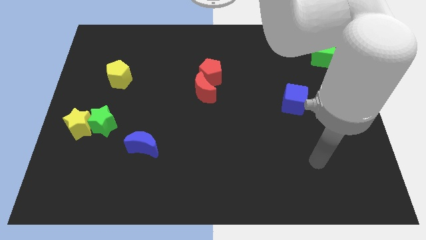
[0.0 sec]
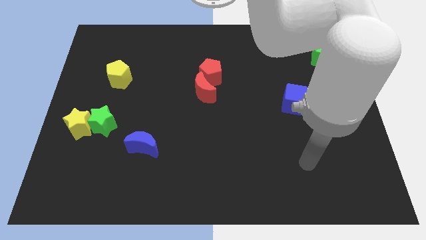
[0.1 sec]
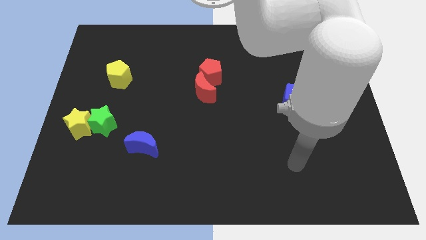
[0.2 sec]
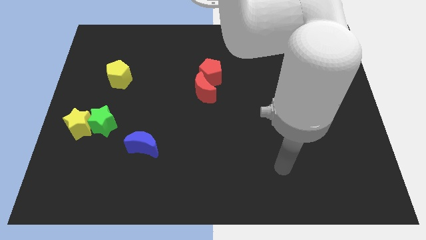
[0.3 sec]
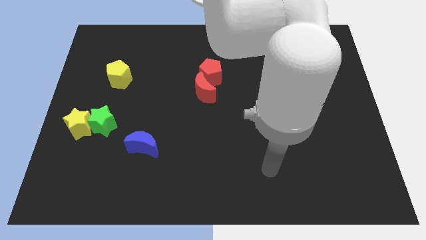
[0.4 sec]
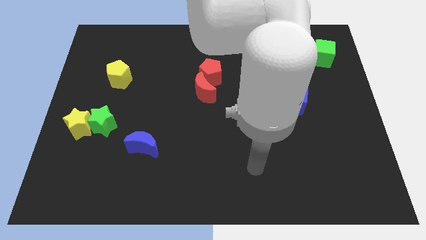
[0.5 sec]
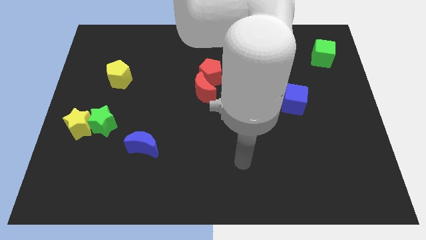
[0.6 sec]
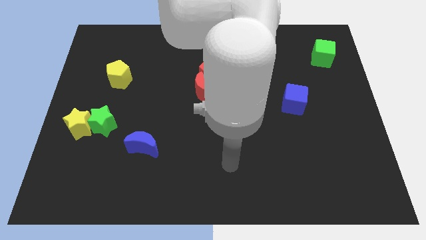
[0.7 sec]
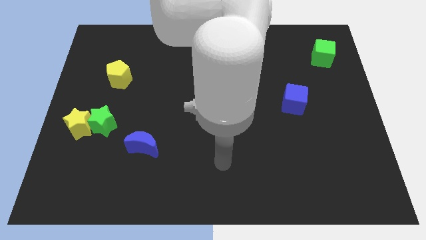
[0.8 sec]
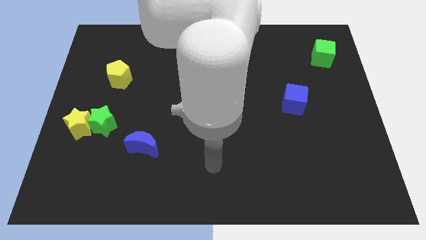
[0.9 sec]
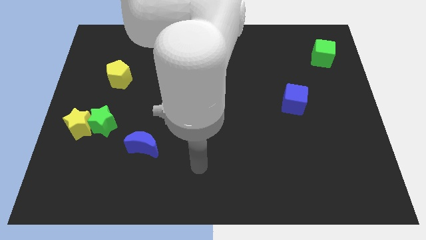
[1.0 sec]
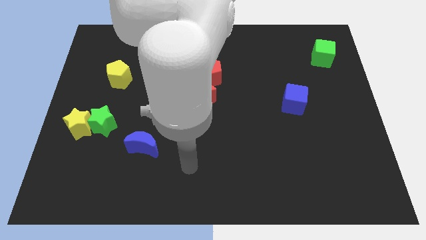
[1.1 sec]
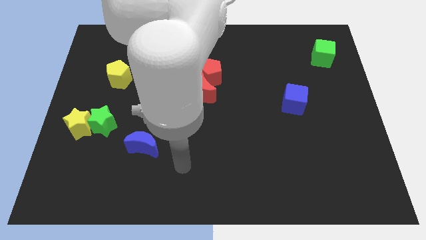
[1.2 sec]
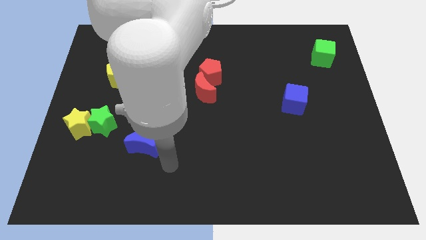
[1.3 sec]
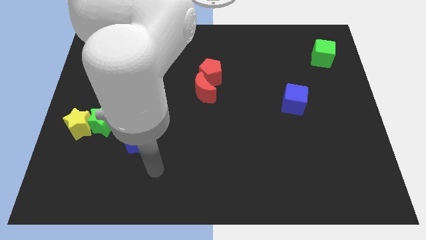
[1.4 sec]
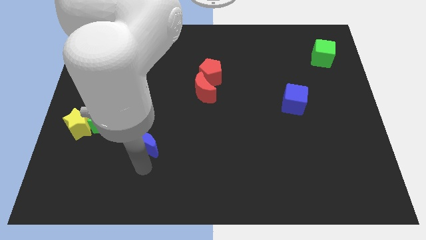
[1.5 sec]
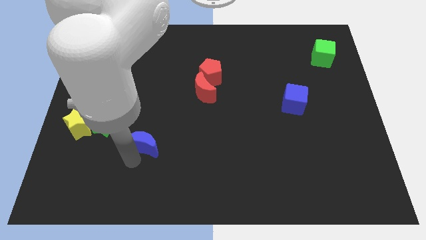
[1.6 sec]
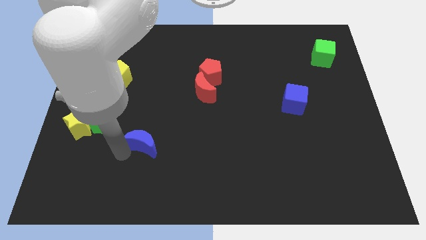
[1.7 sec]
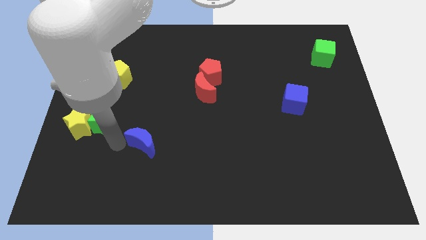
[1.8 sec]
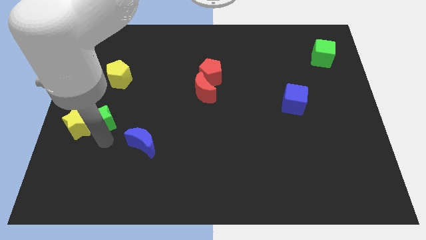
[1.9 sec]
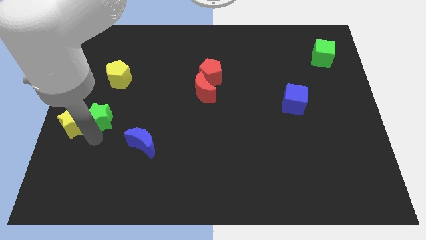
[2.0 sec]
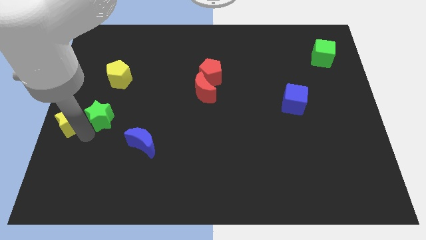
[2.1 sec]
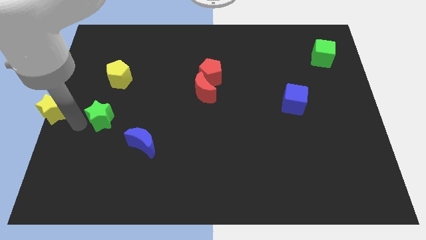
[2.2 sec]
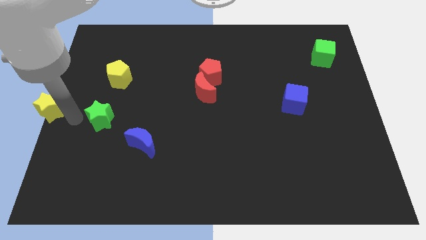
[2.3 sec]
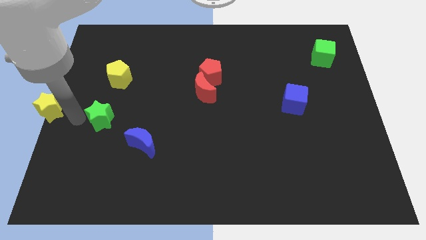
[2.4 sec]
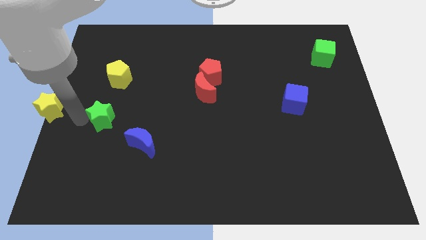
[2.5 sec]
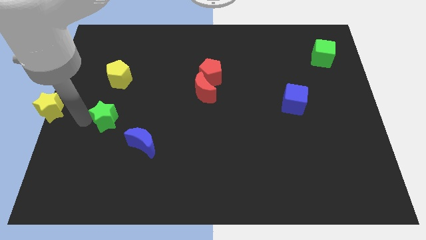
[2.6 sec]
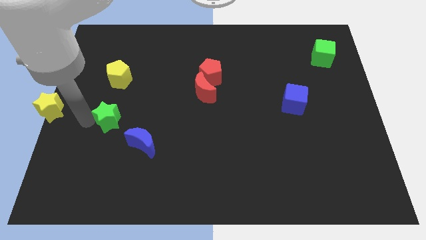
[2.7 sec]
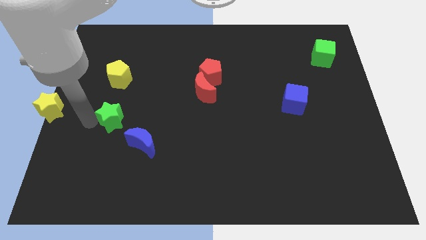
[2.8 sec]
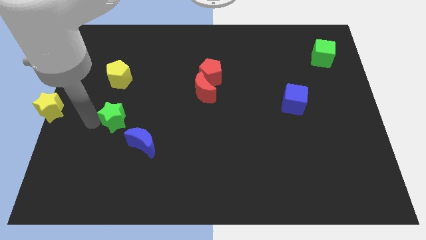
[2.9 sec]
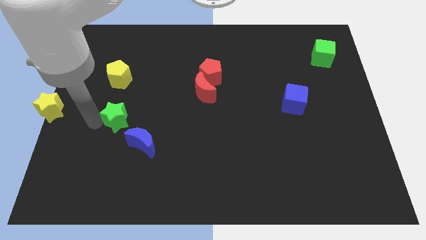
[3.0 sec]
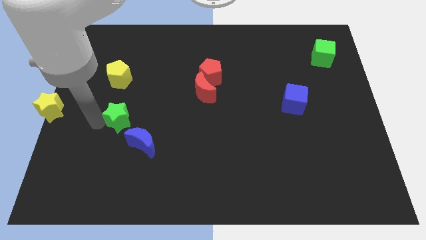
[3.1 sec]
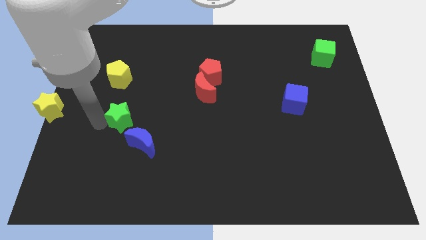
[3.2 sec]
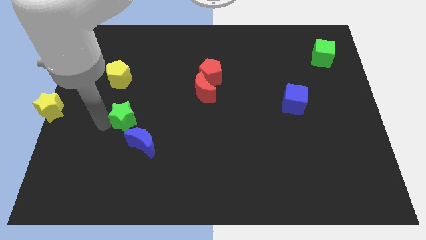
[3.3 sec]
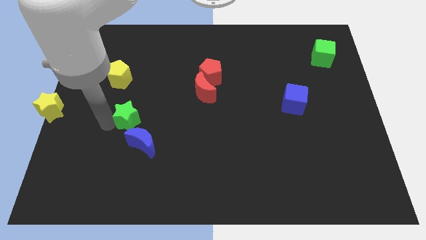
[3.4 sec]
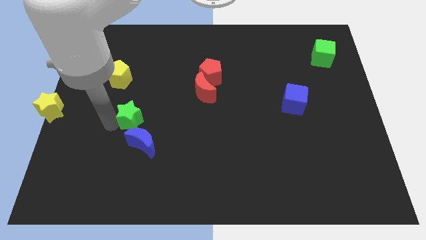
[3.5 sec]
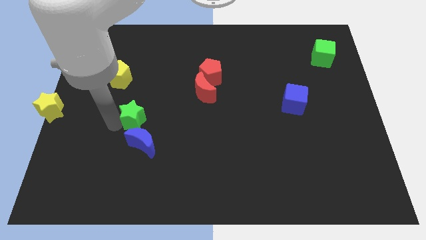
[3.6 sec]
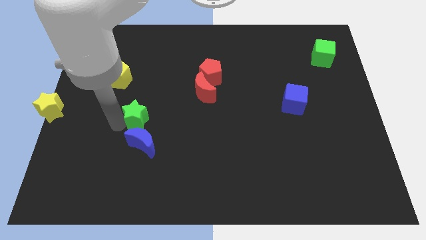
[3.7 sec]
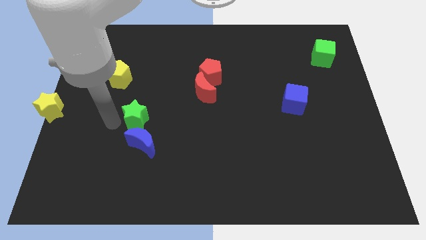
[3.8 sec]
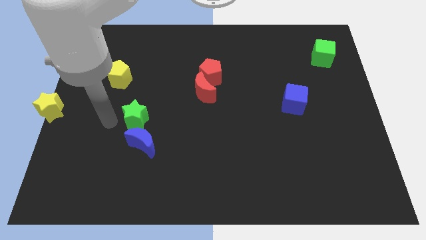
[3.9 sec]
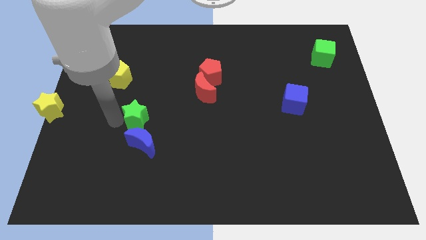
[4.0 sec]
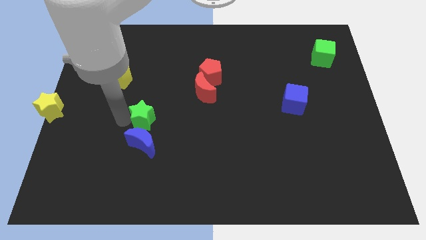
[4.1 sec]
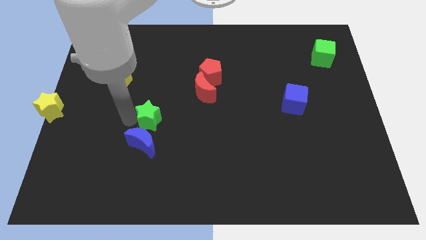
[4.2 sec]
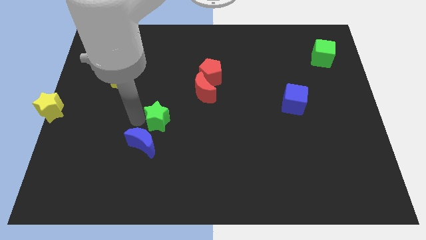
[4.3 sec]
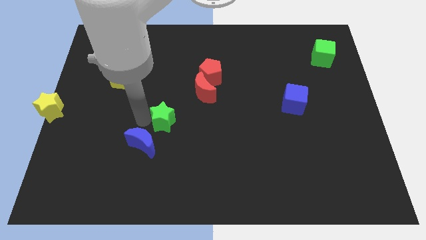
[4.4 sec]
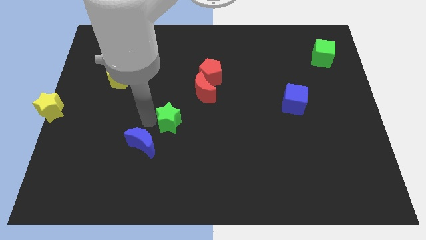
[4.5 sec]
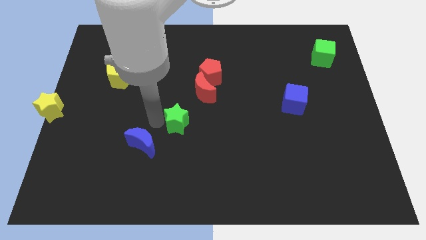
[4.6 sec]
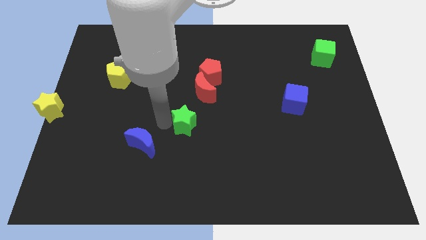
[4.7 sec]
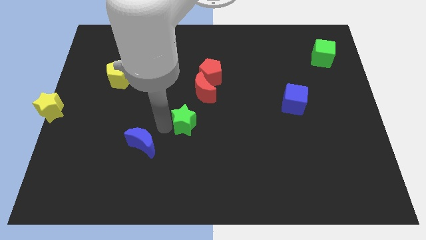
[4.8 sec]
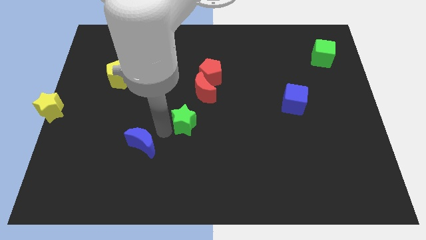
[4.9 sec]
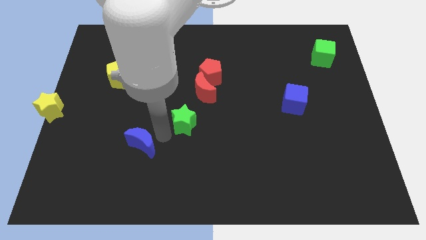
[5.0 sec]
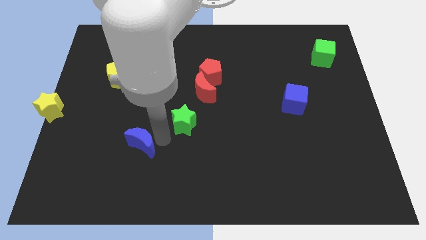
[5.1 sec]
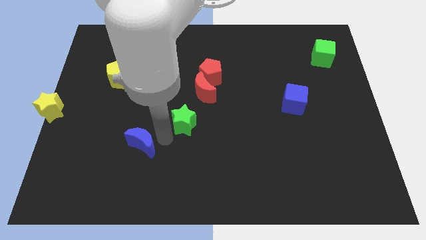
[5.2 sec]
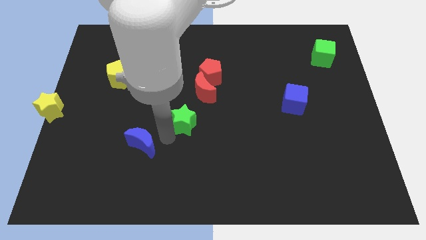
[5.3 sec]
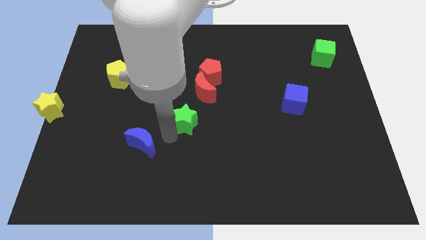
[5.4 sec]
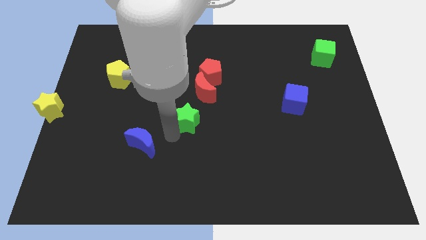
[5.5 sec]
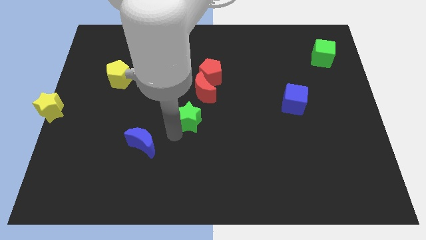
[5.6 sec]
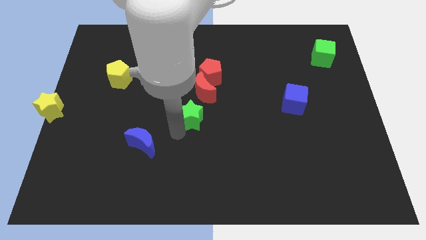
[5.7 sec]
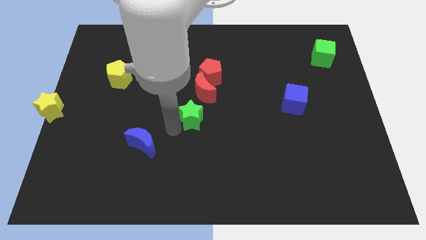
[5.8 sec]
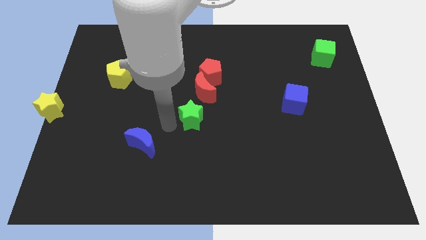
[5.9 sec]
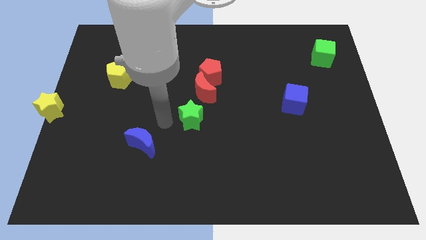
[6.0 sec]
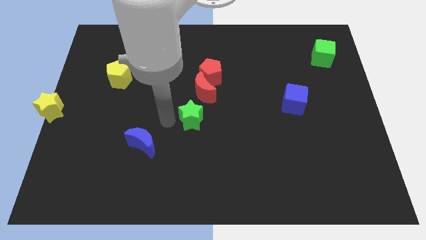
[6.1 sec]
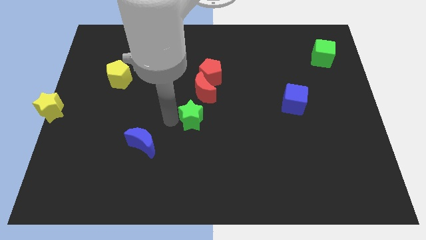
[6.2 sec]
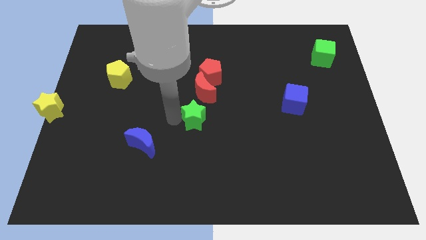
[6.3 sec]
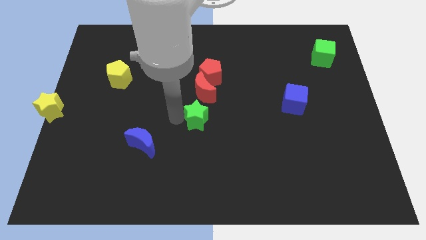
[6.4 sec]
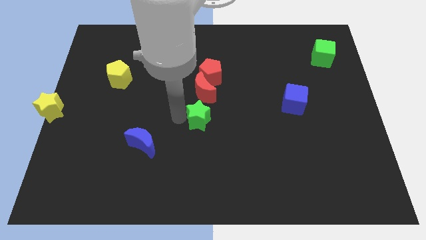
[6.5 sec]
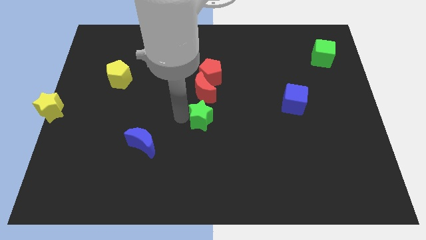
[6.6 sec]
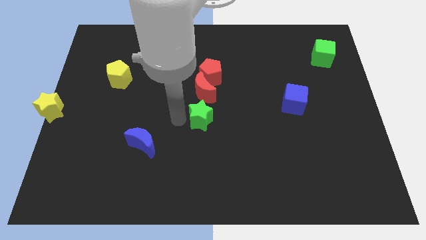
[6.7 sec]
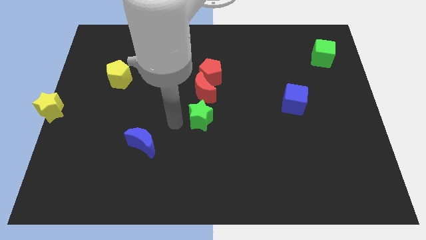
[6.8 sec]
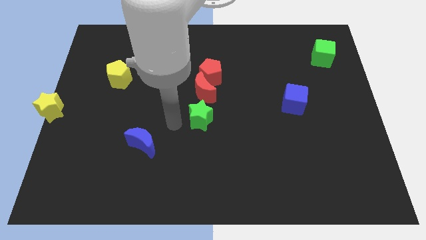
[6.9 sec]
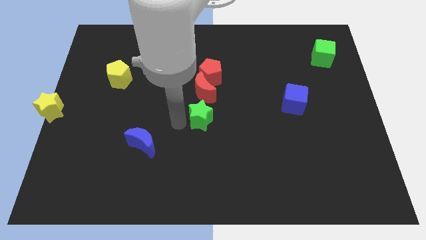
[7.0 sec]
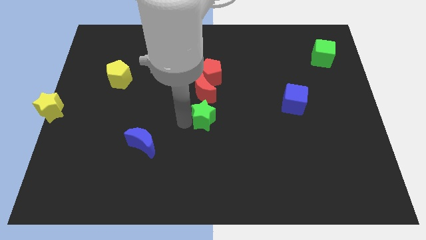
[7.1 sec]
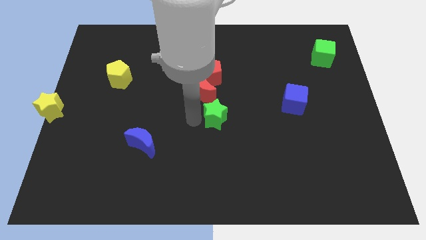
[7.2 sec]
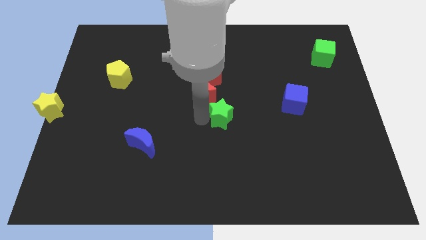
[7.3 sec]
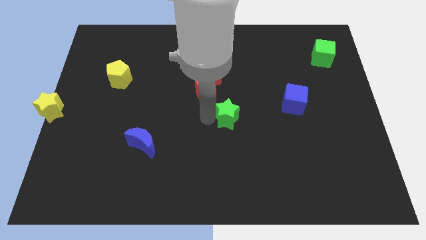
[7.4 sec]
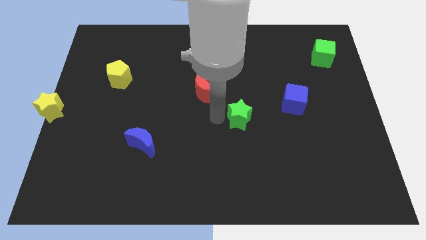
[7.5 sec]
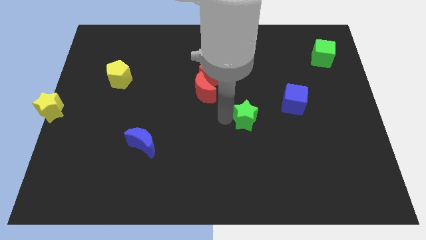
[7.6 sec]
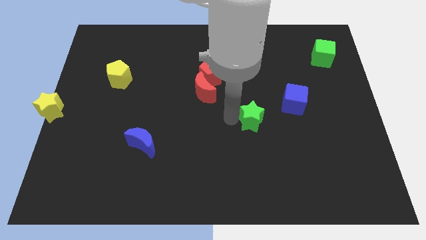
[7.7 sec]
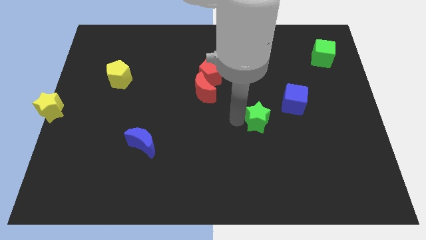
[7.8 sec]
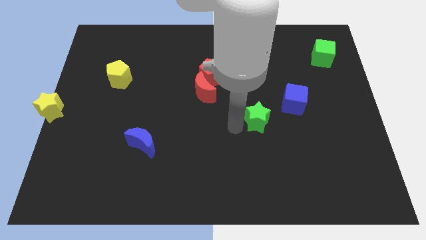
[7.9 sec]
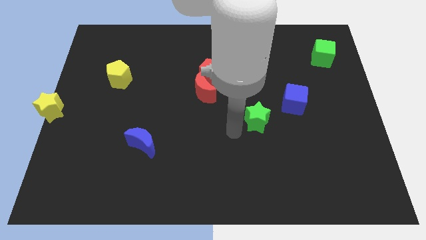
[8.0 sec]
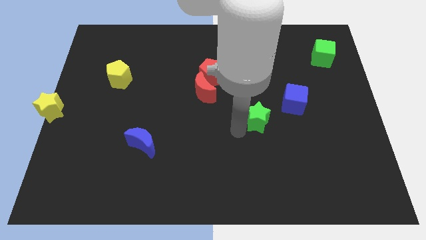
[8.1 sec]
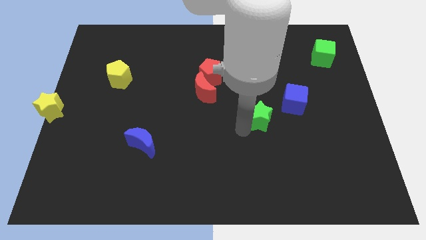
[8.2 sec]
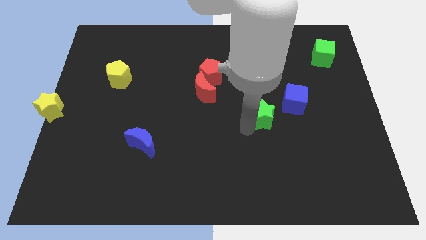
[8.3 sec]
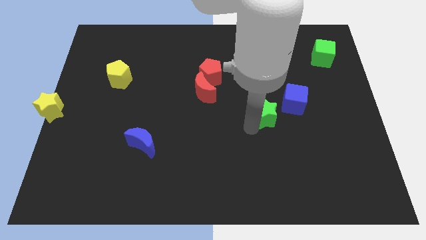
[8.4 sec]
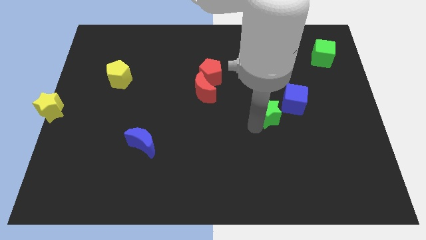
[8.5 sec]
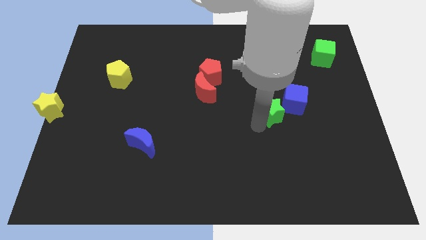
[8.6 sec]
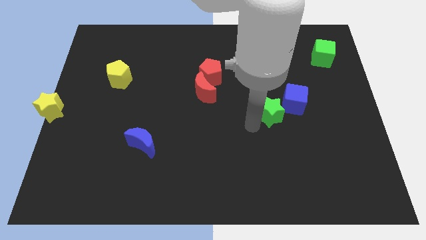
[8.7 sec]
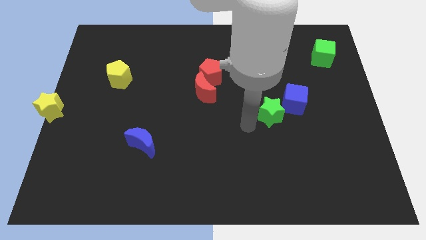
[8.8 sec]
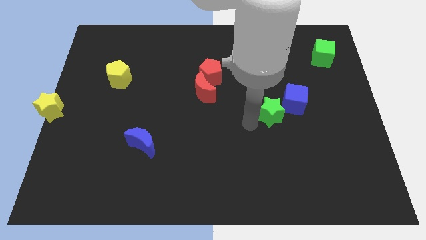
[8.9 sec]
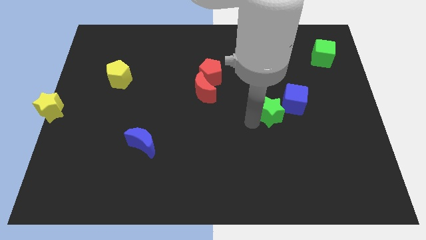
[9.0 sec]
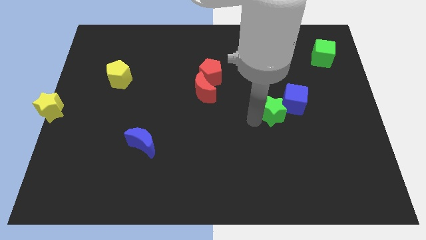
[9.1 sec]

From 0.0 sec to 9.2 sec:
move the green star towards the blue cube
